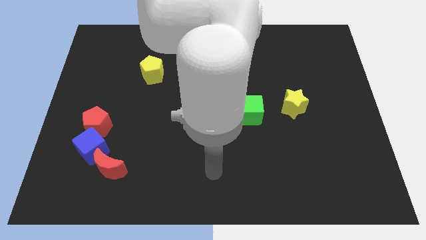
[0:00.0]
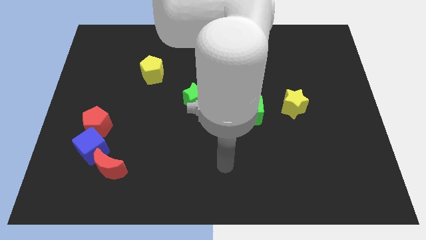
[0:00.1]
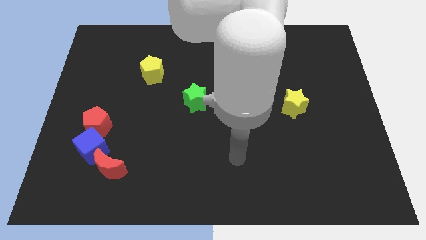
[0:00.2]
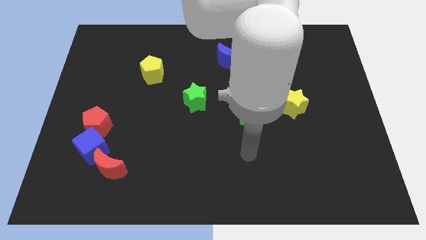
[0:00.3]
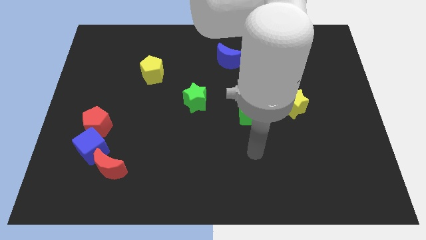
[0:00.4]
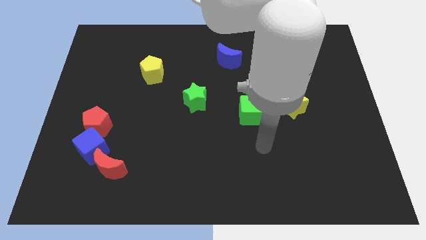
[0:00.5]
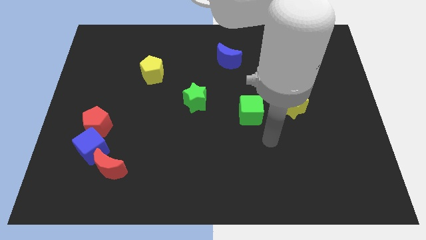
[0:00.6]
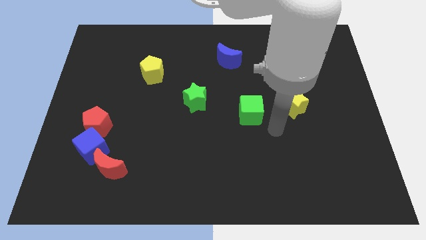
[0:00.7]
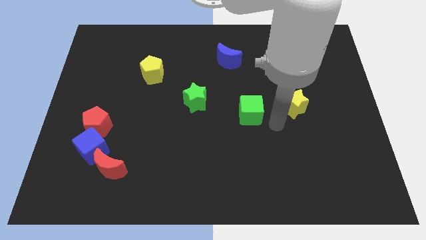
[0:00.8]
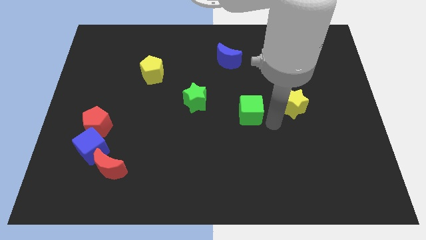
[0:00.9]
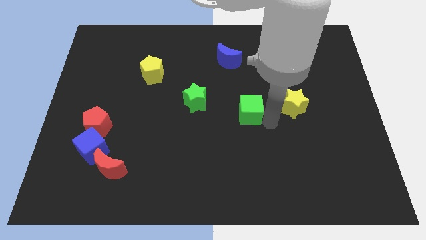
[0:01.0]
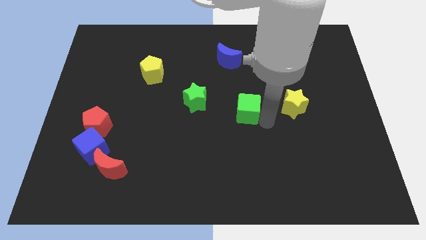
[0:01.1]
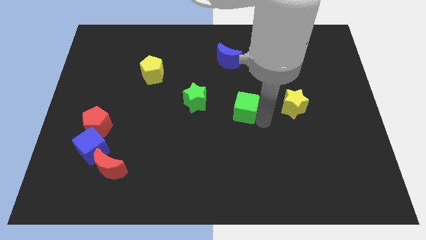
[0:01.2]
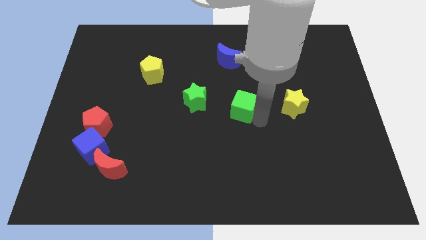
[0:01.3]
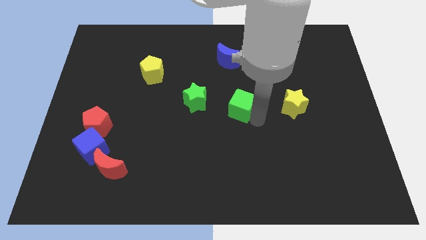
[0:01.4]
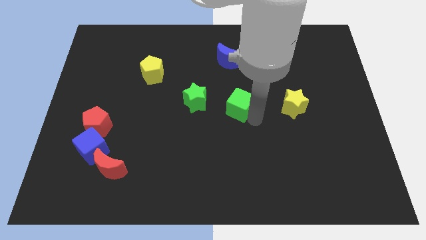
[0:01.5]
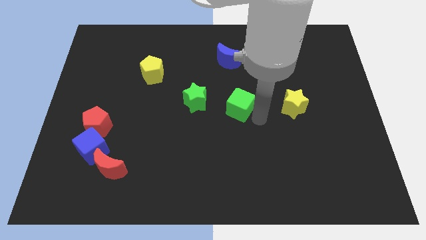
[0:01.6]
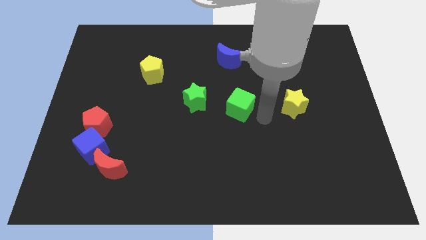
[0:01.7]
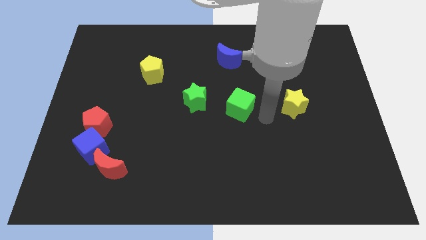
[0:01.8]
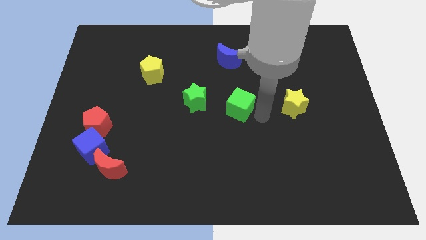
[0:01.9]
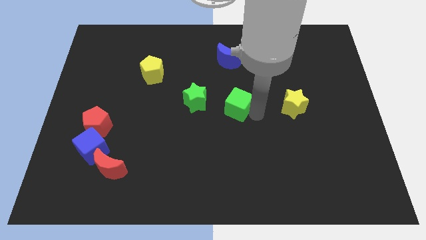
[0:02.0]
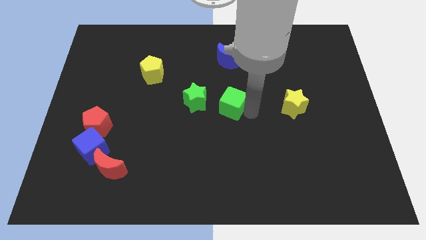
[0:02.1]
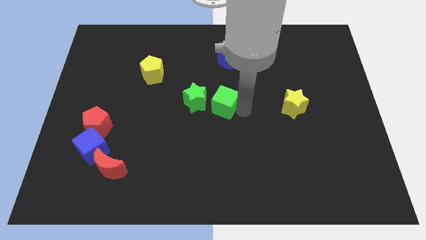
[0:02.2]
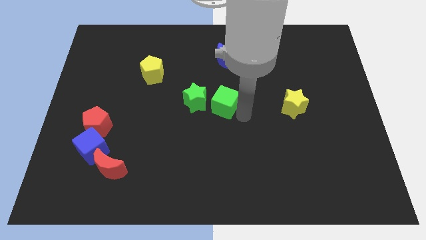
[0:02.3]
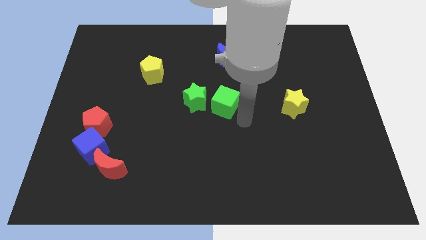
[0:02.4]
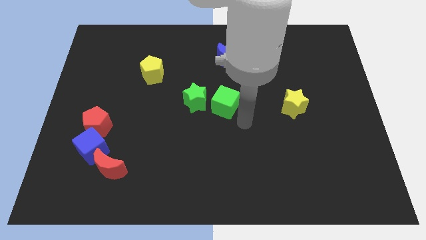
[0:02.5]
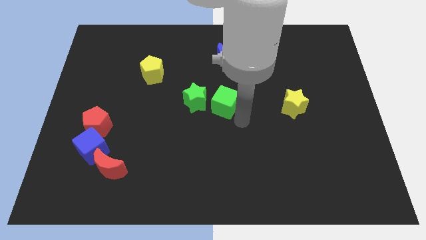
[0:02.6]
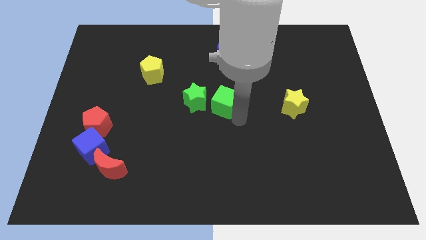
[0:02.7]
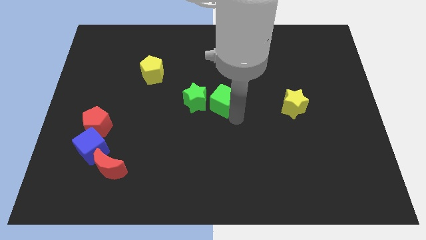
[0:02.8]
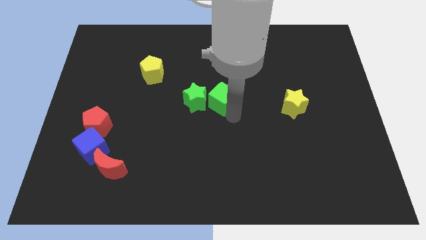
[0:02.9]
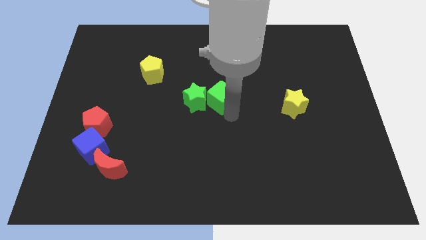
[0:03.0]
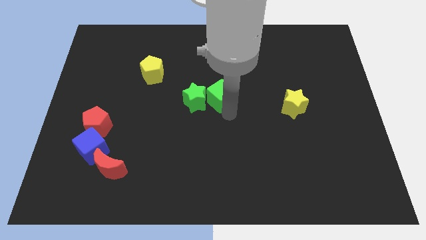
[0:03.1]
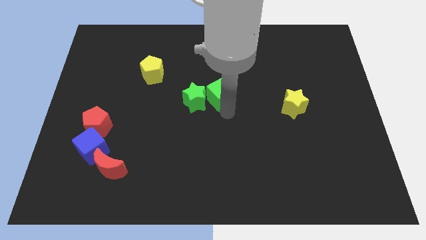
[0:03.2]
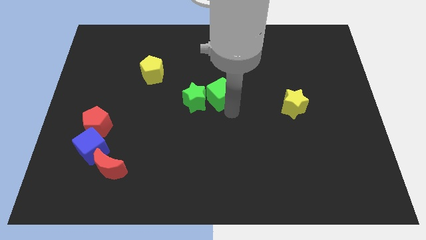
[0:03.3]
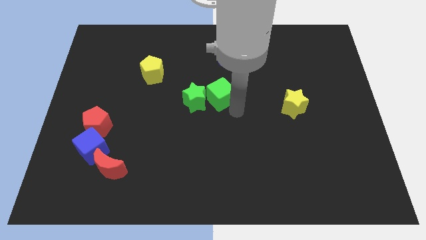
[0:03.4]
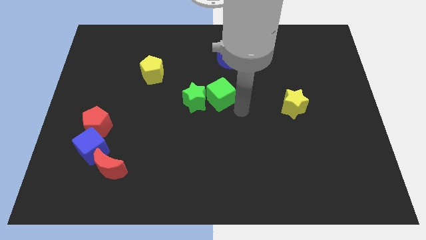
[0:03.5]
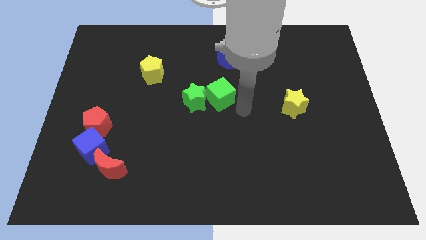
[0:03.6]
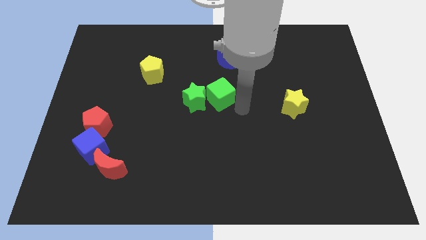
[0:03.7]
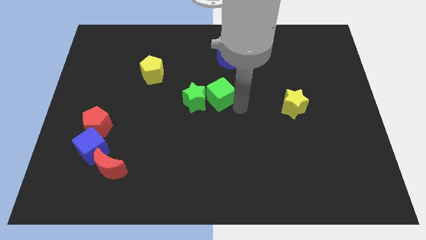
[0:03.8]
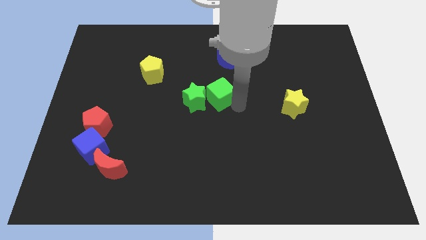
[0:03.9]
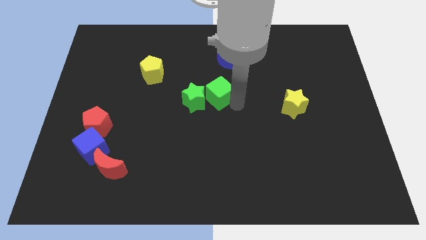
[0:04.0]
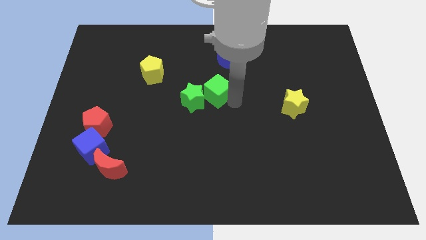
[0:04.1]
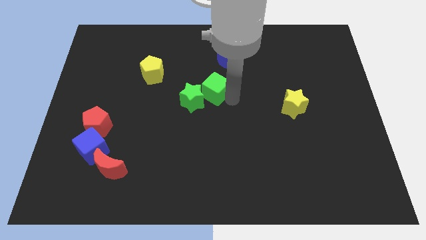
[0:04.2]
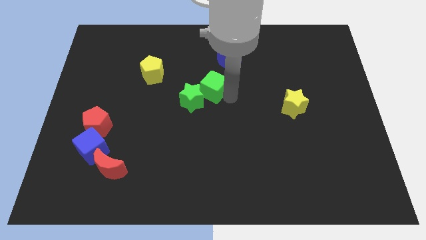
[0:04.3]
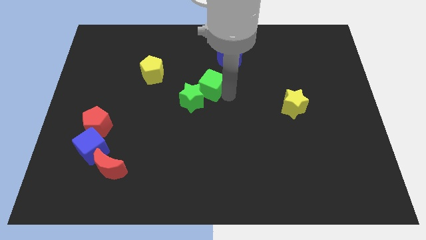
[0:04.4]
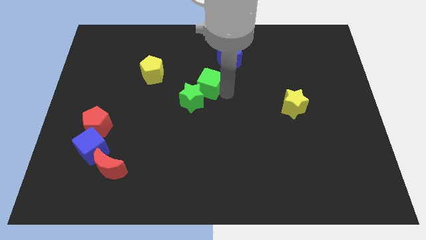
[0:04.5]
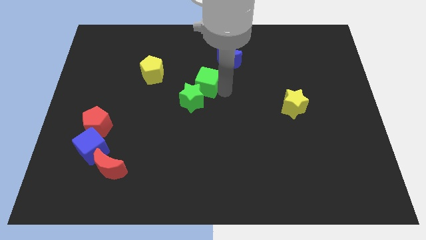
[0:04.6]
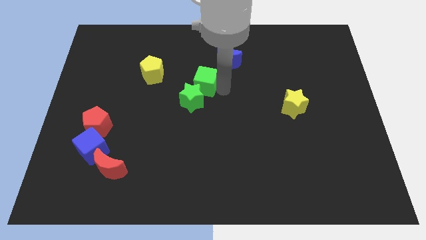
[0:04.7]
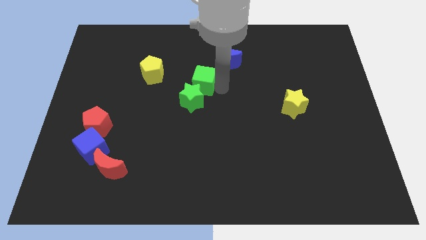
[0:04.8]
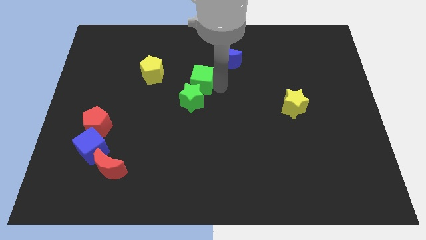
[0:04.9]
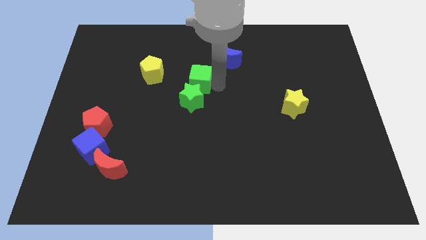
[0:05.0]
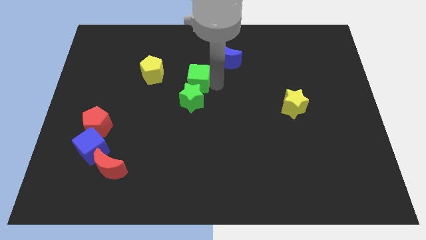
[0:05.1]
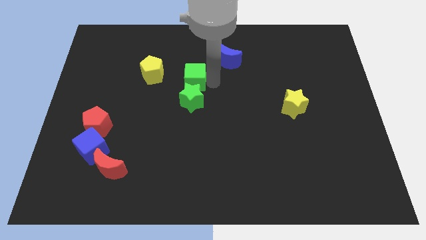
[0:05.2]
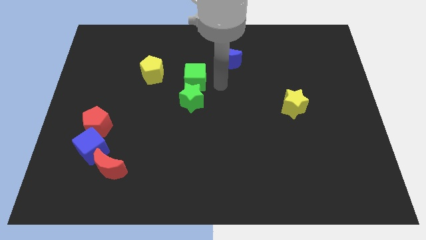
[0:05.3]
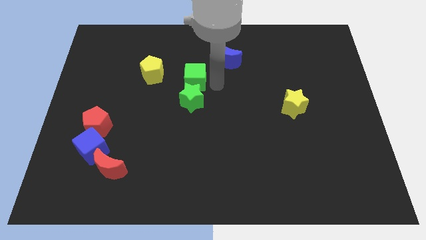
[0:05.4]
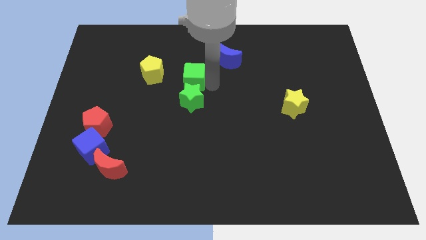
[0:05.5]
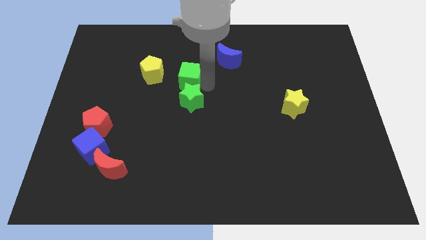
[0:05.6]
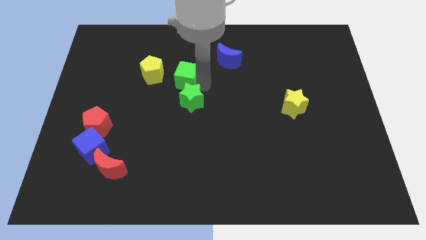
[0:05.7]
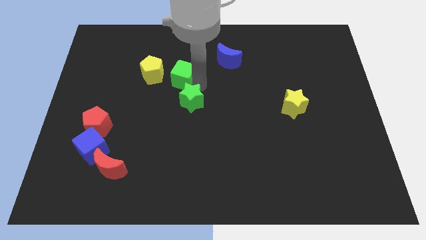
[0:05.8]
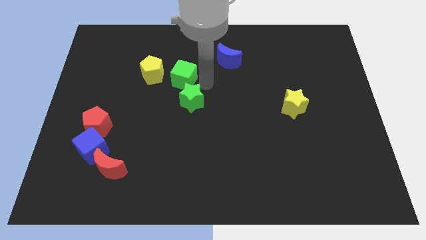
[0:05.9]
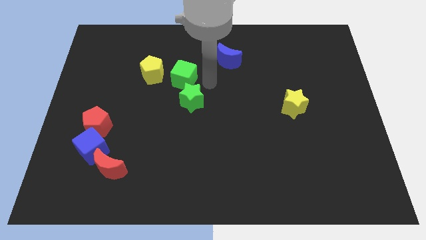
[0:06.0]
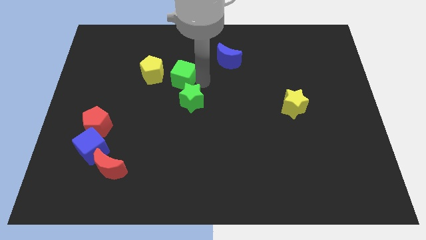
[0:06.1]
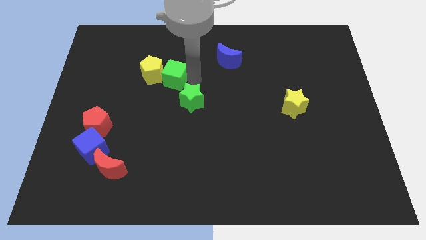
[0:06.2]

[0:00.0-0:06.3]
put the green cube towards the yellow pentagon

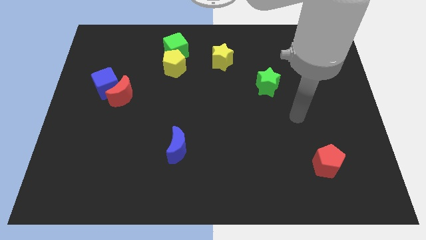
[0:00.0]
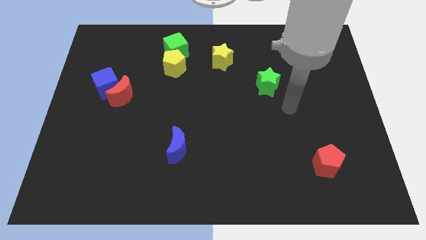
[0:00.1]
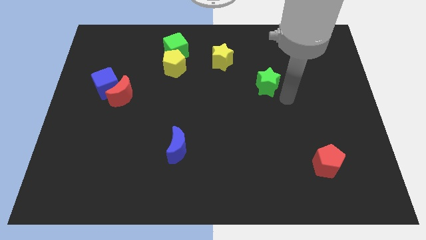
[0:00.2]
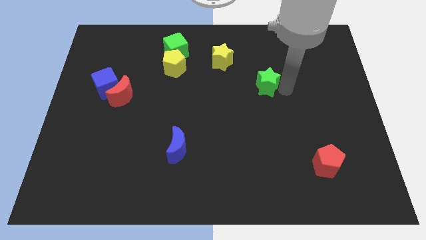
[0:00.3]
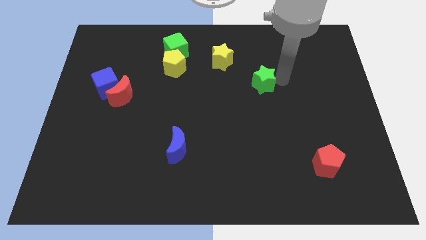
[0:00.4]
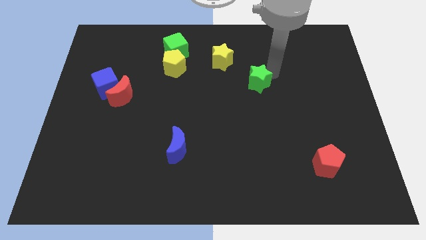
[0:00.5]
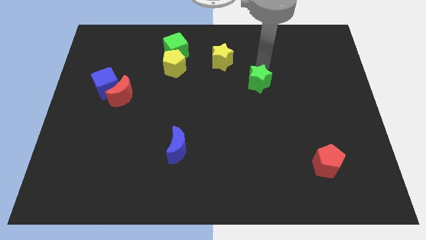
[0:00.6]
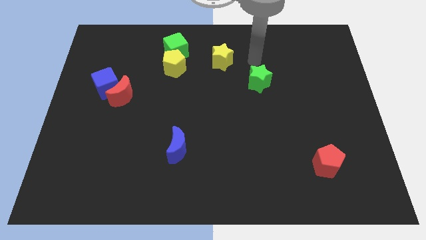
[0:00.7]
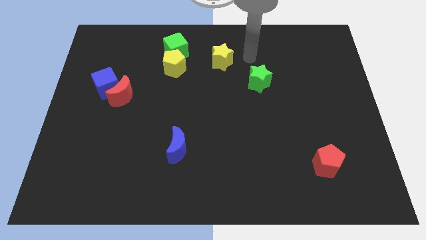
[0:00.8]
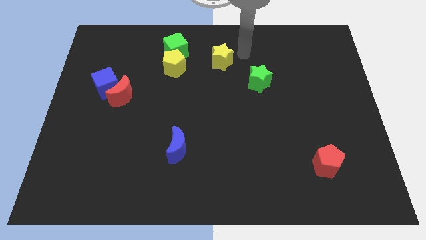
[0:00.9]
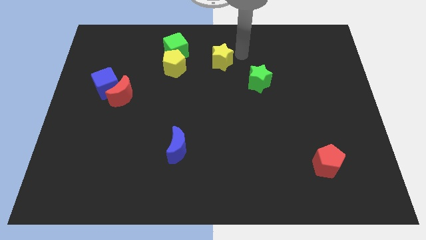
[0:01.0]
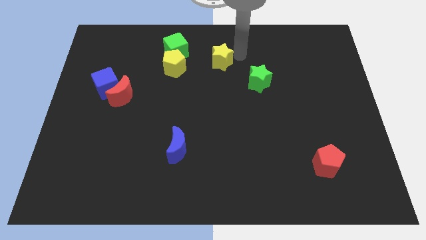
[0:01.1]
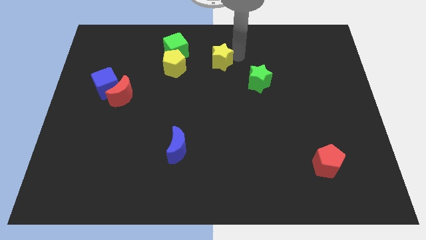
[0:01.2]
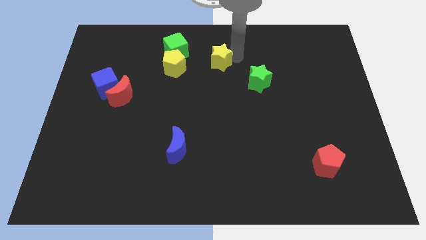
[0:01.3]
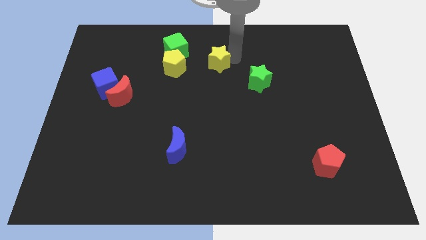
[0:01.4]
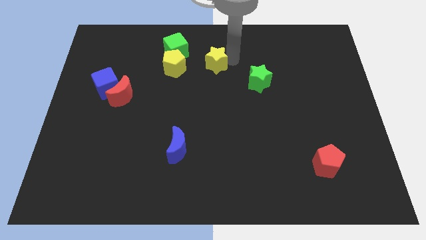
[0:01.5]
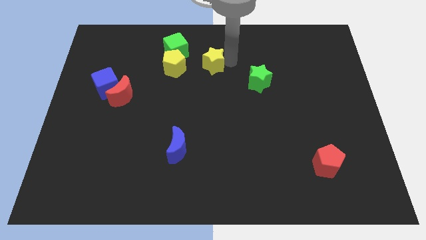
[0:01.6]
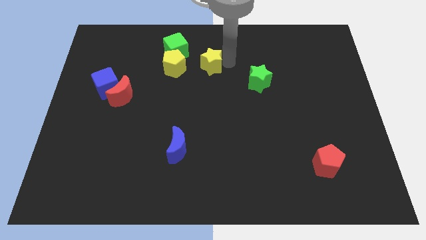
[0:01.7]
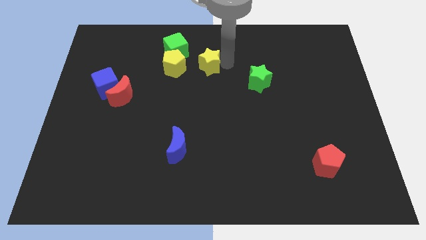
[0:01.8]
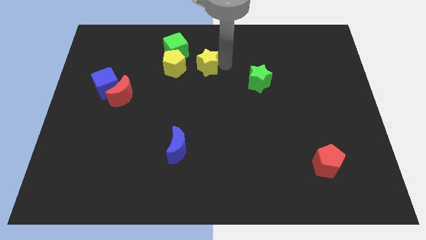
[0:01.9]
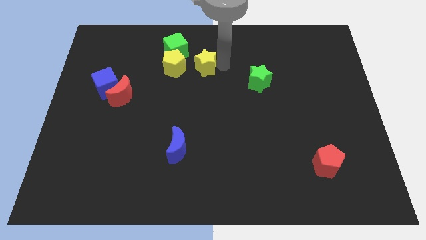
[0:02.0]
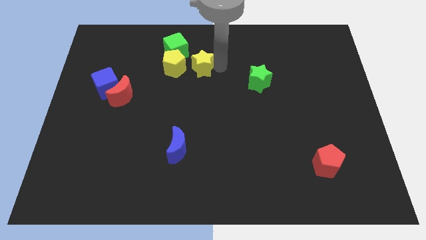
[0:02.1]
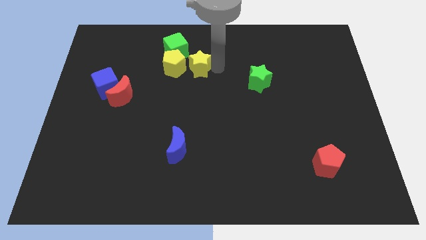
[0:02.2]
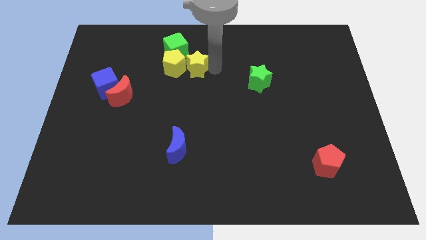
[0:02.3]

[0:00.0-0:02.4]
move the yellow star next to the yellow pentagon
